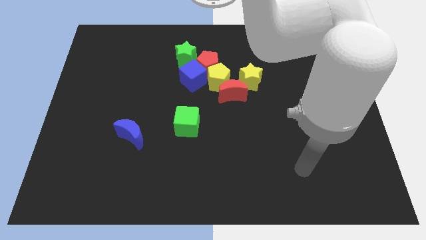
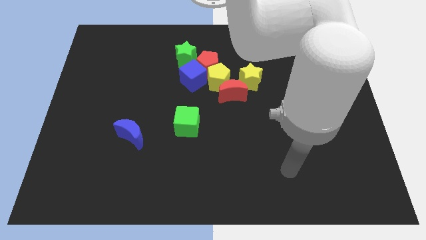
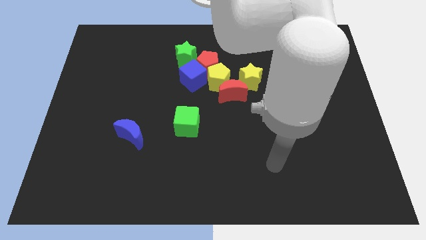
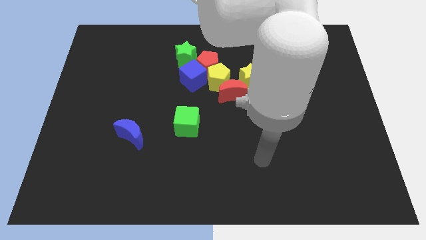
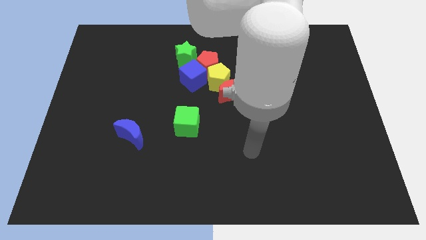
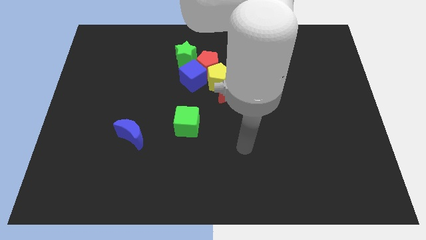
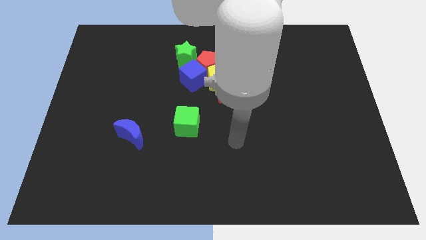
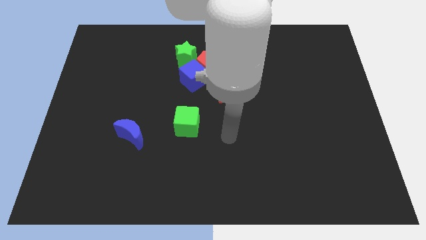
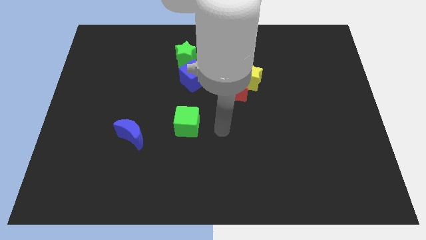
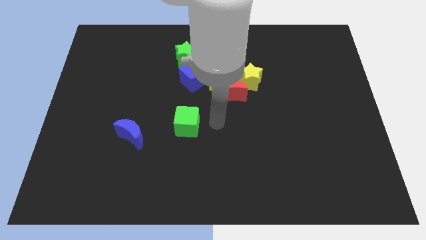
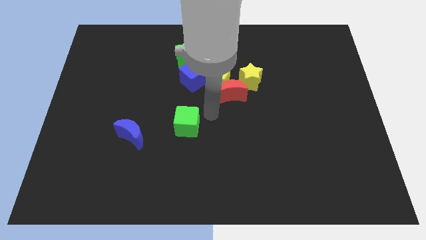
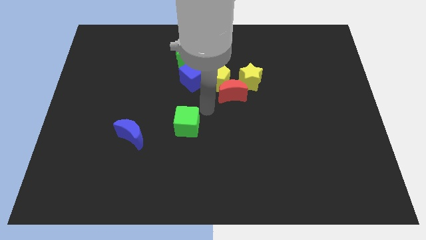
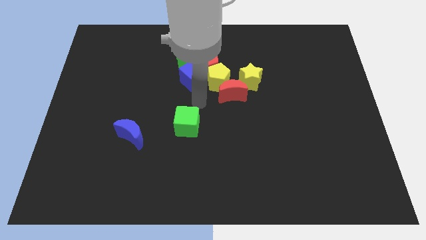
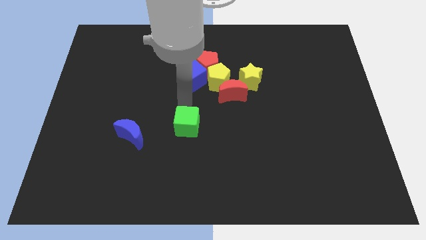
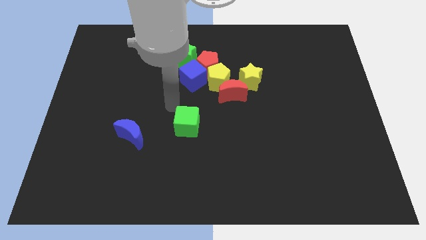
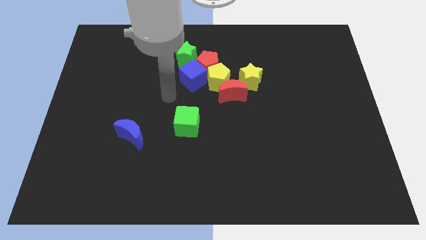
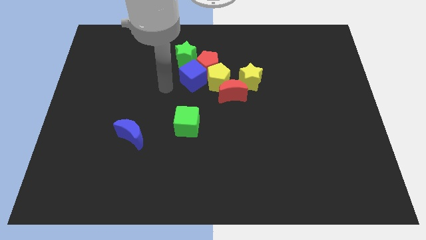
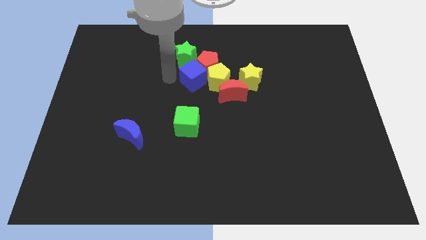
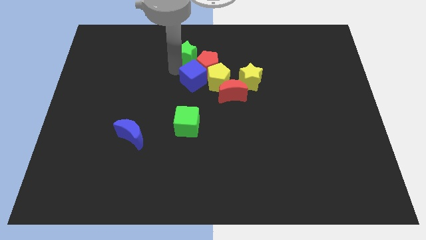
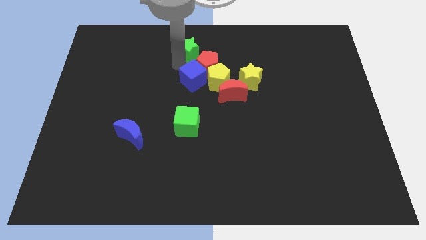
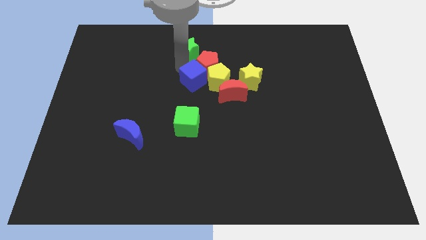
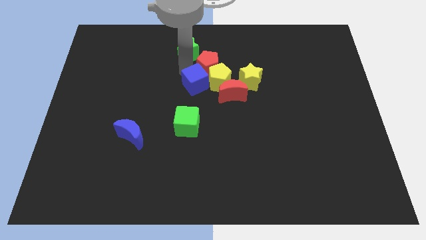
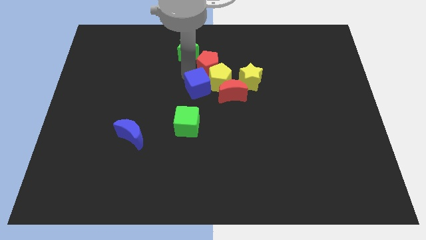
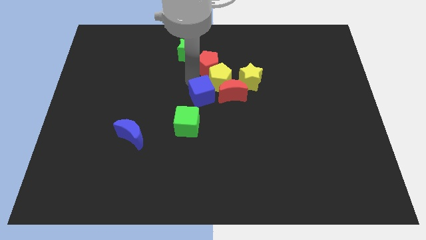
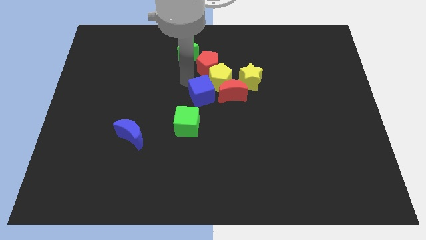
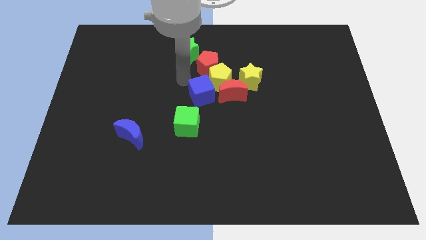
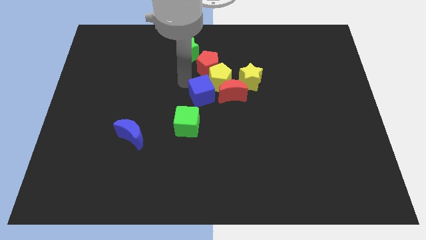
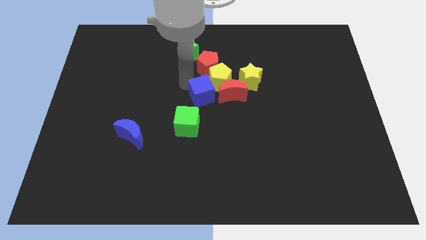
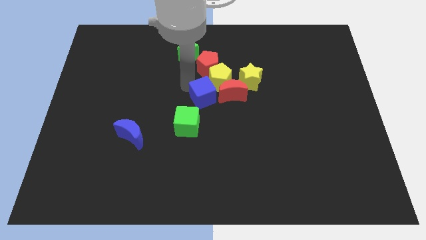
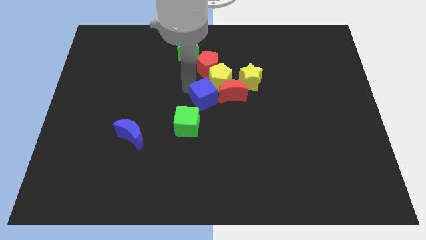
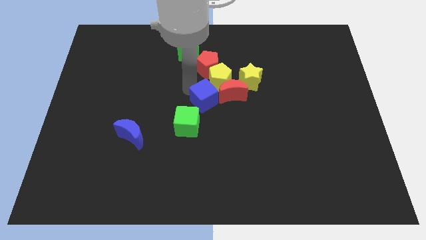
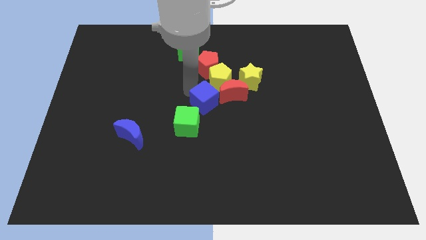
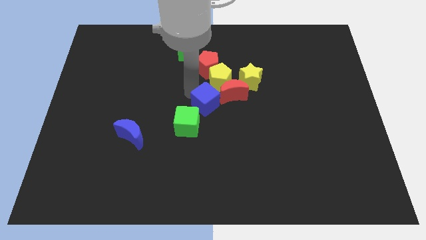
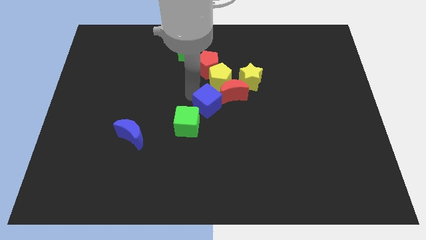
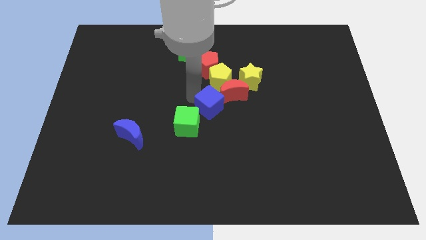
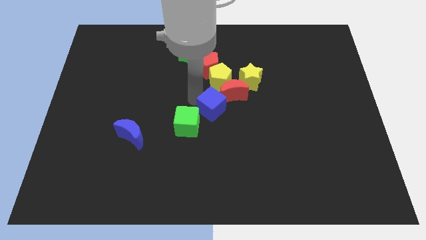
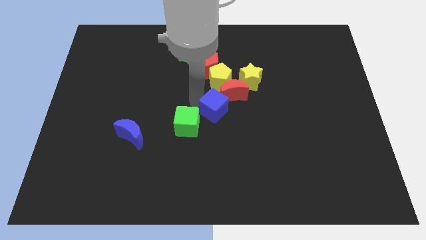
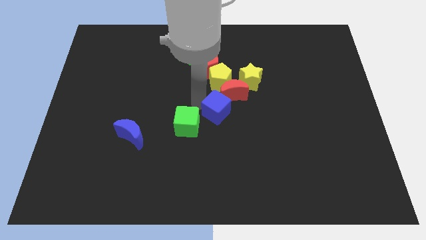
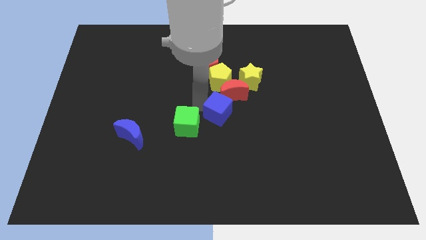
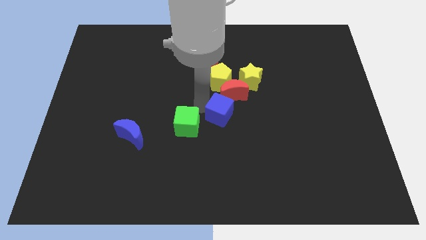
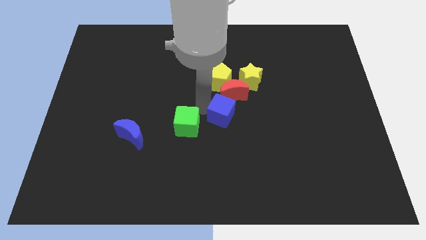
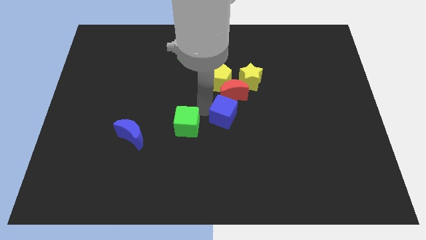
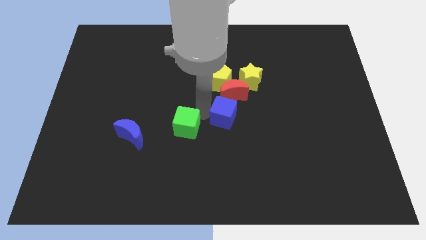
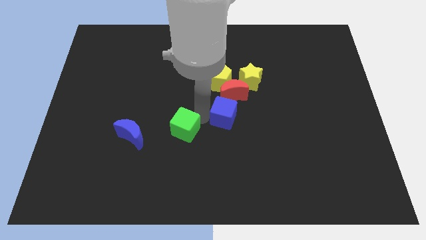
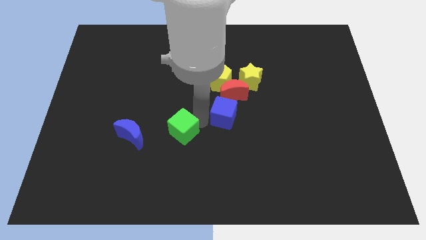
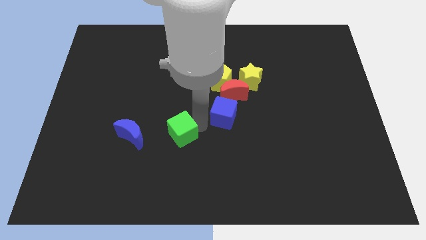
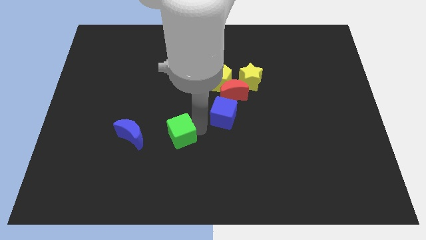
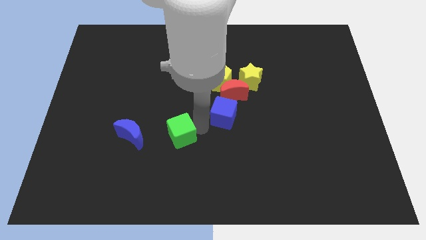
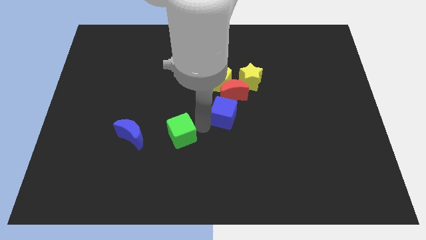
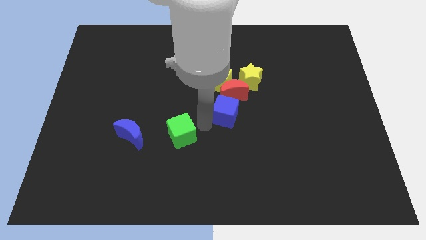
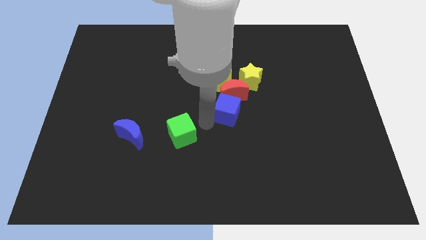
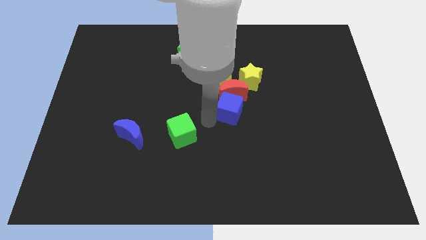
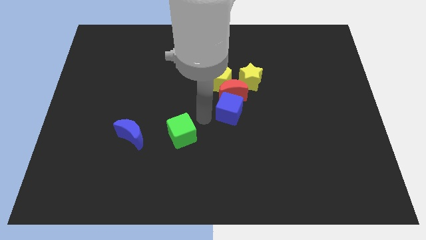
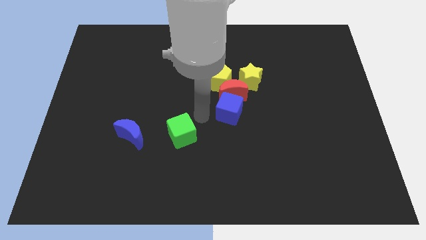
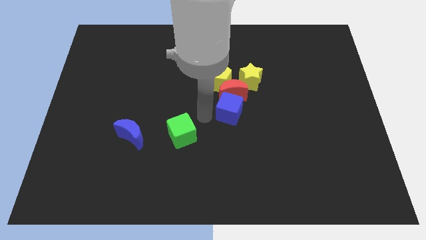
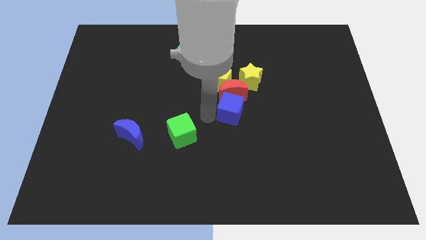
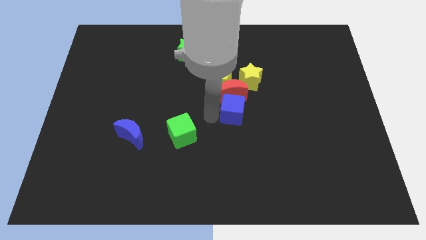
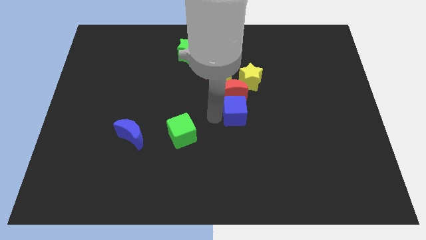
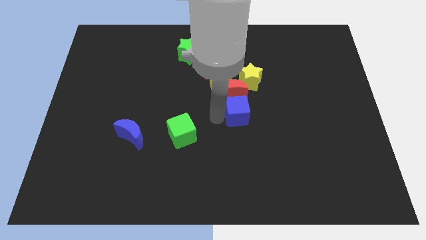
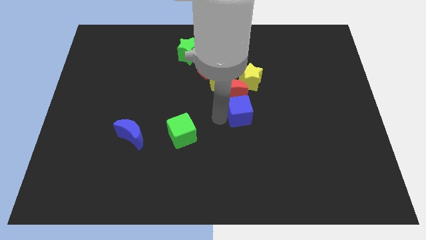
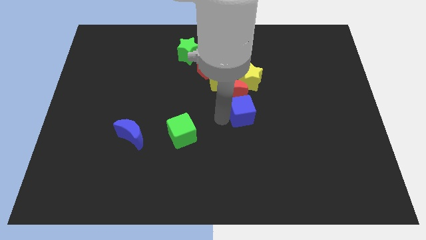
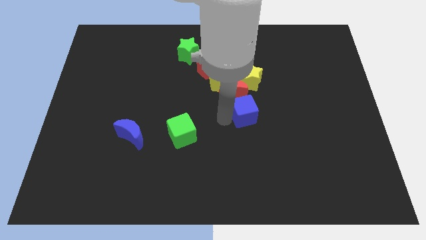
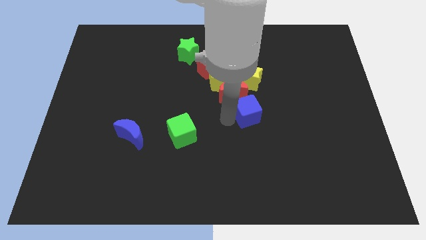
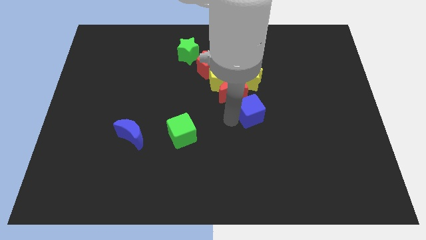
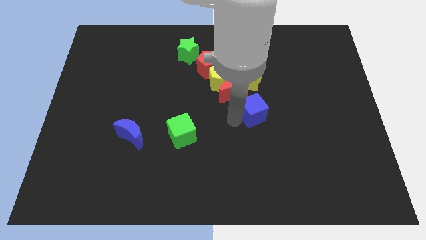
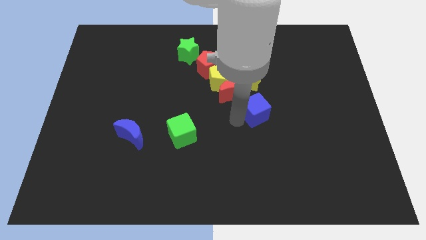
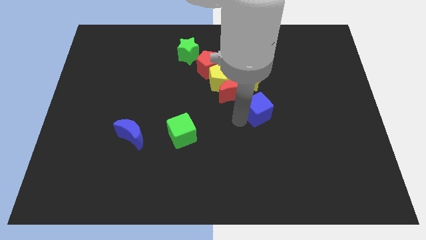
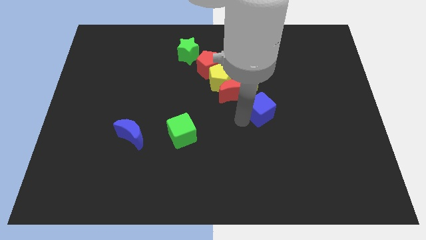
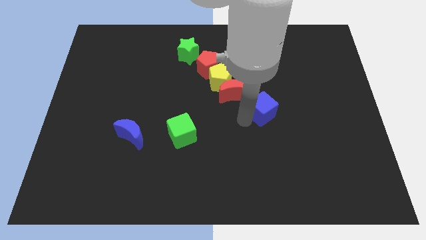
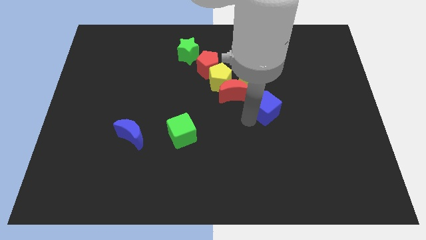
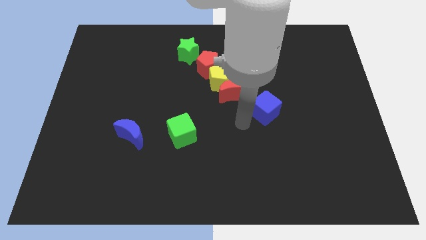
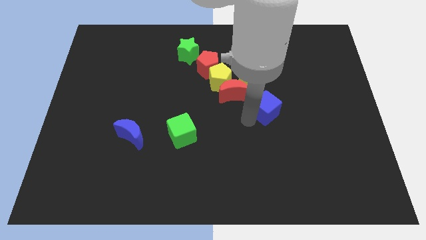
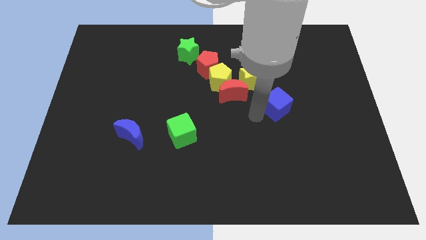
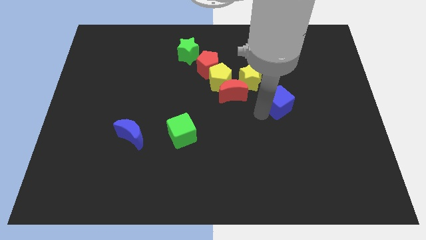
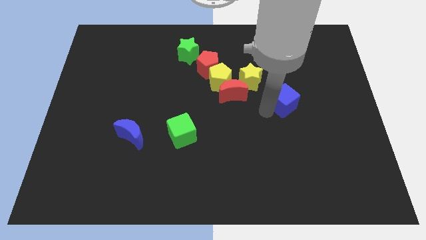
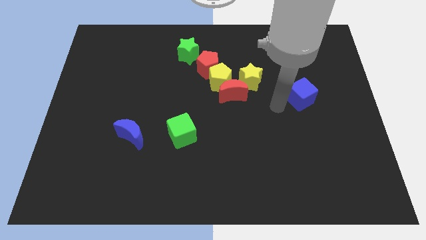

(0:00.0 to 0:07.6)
slide the blue cube to the right

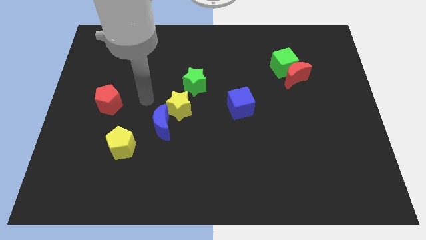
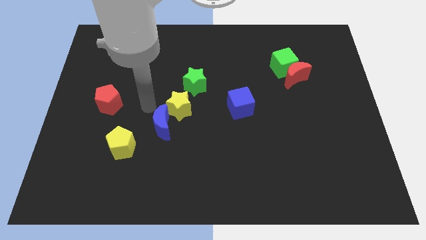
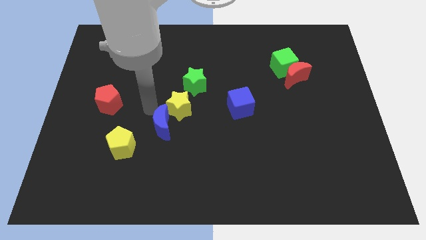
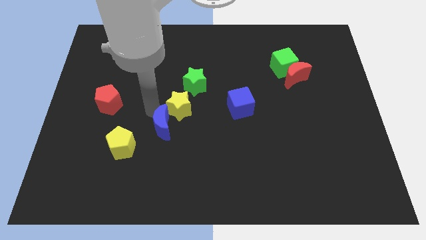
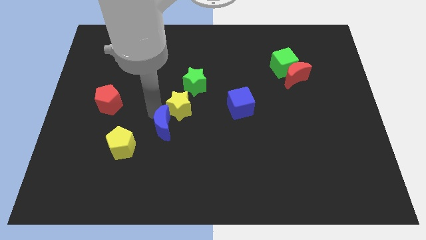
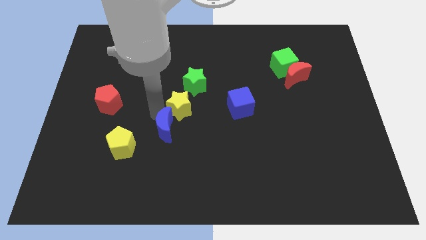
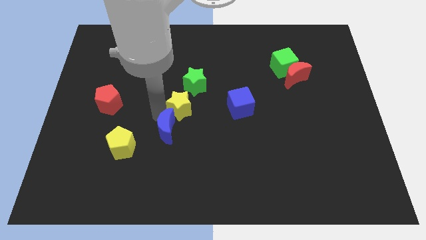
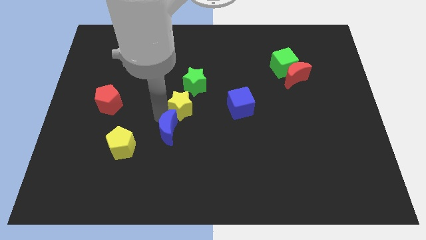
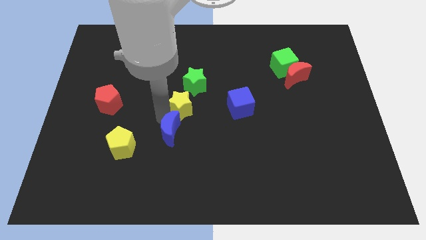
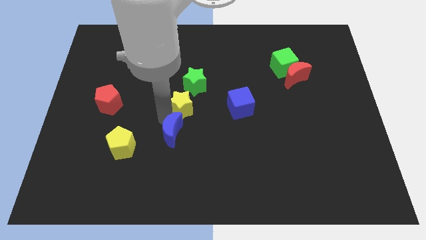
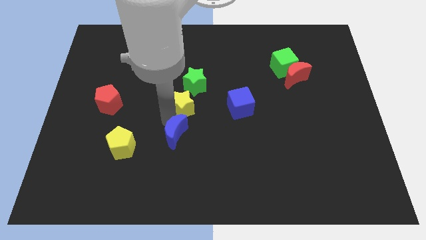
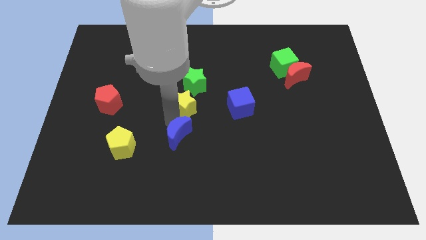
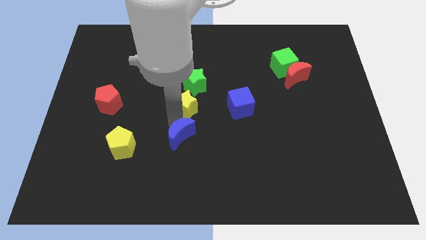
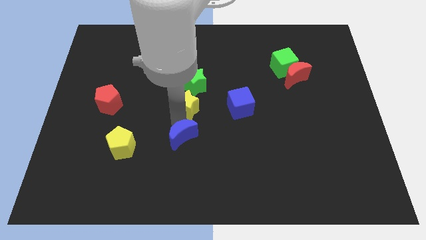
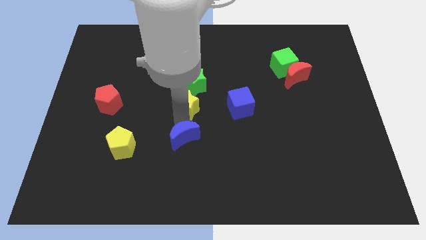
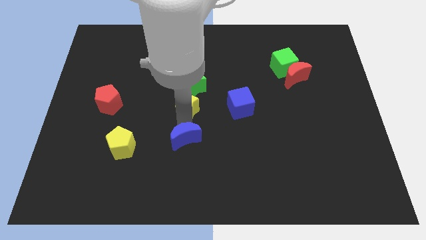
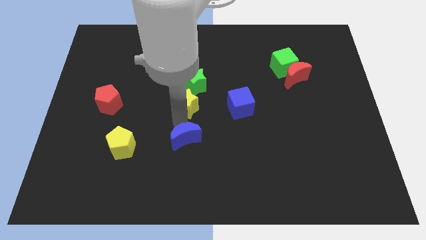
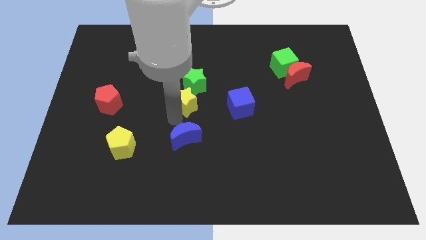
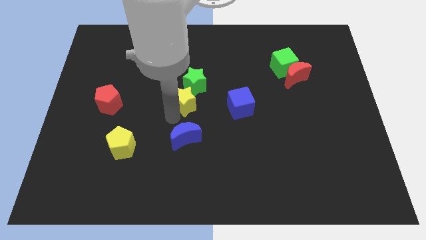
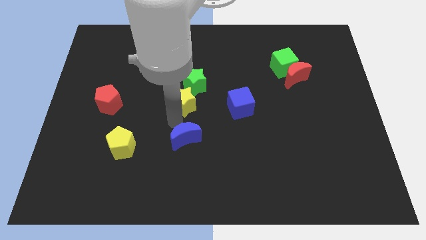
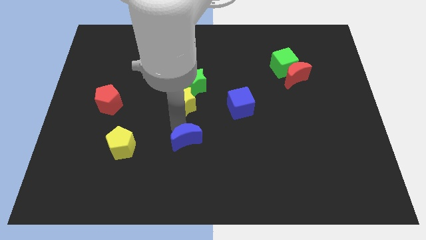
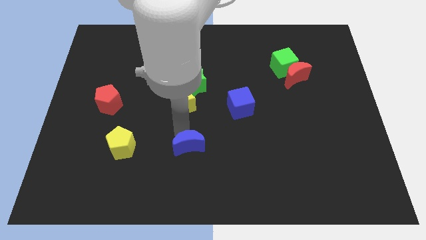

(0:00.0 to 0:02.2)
slightly slide the blue moon down and right diagonally
